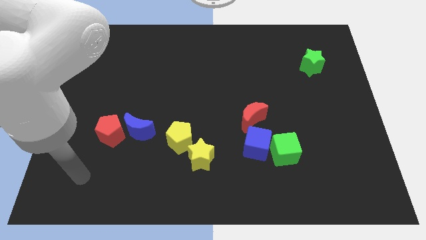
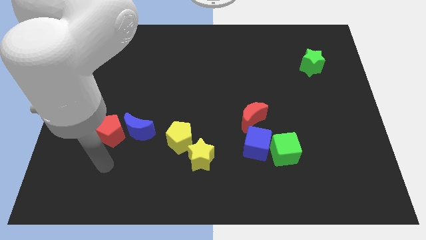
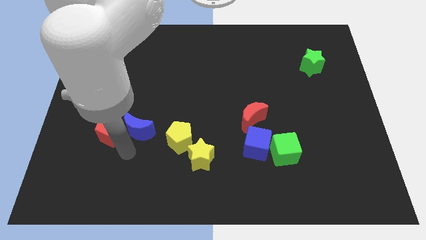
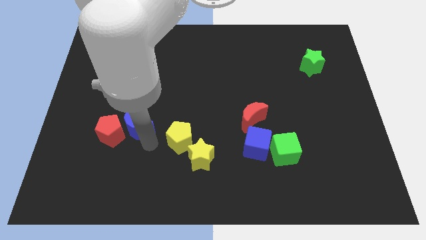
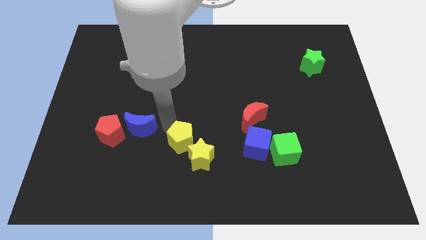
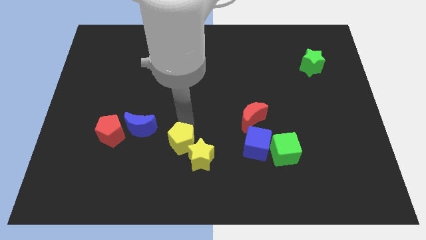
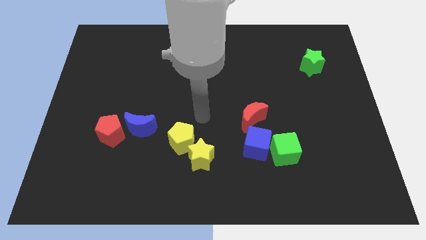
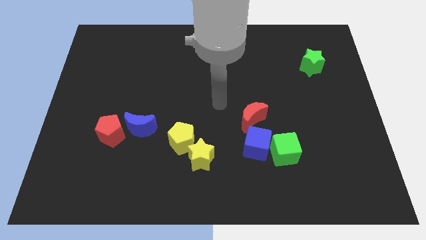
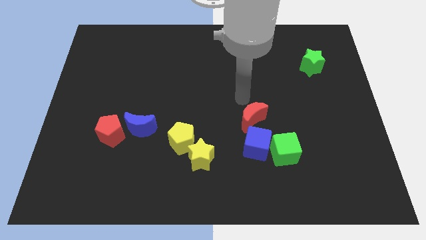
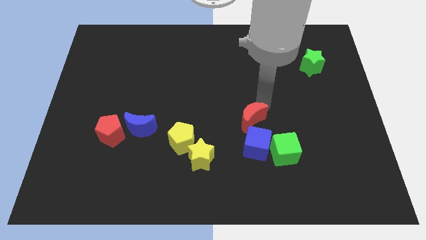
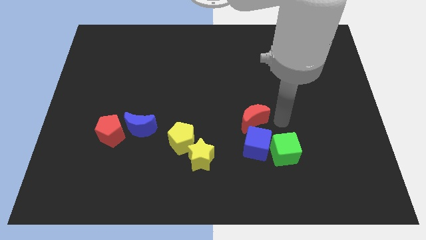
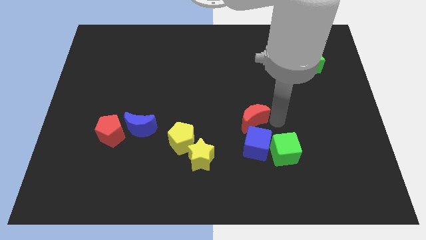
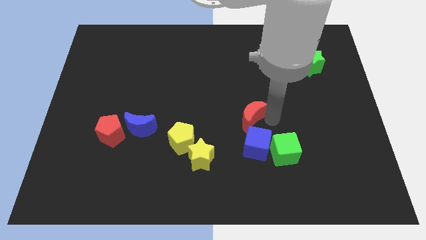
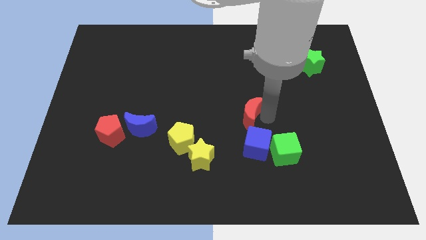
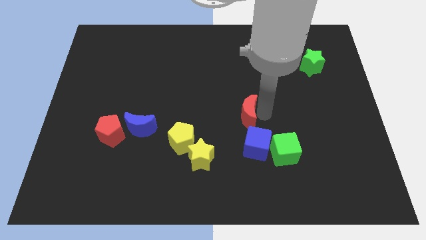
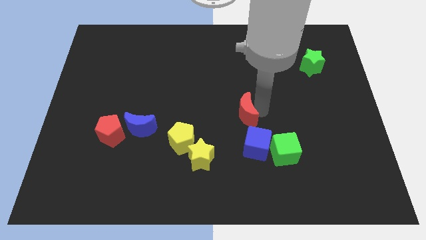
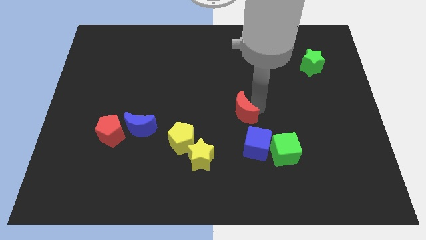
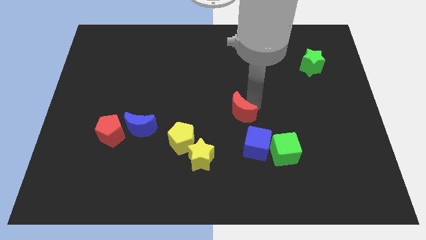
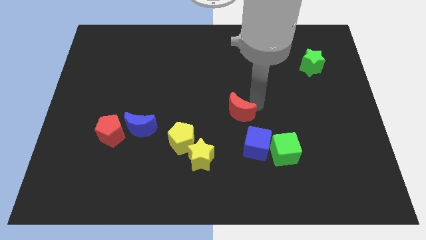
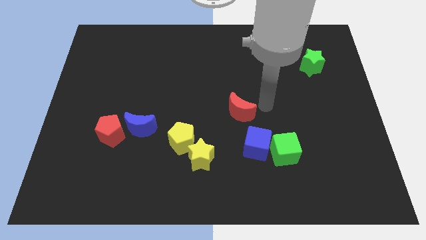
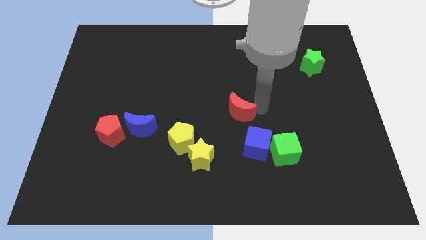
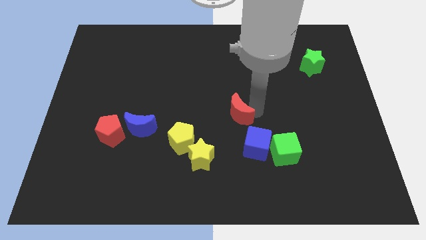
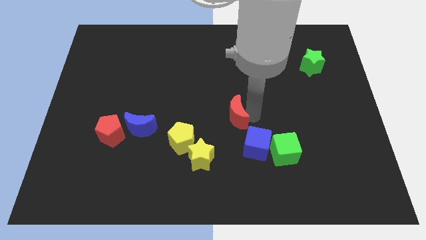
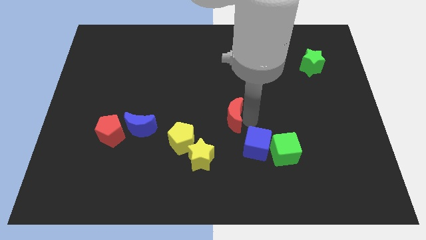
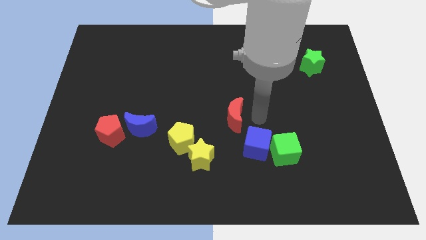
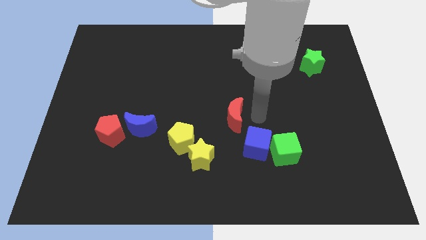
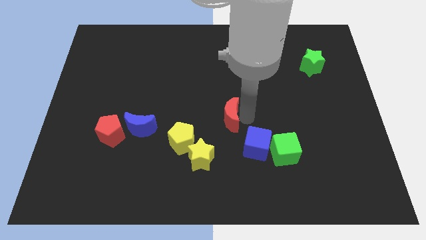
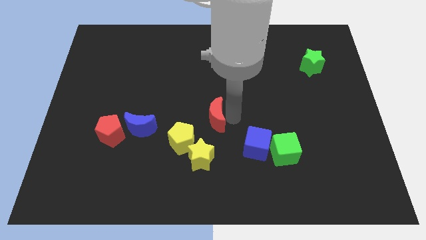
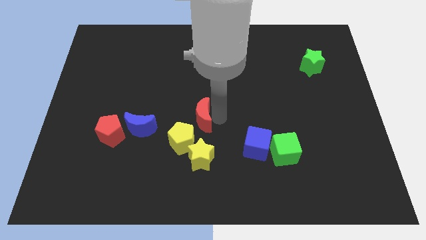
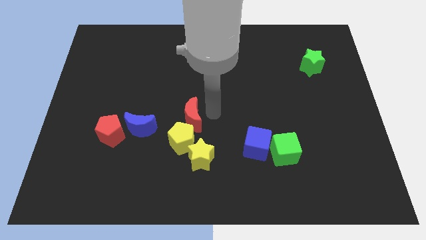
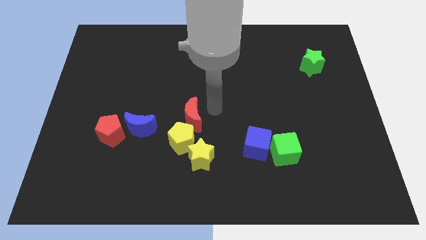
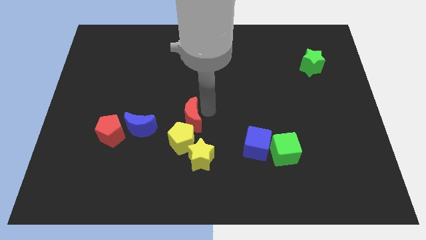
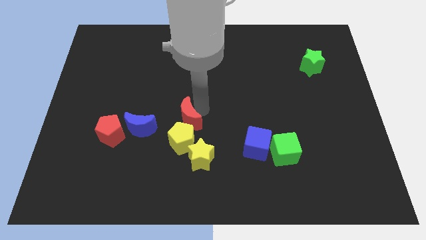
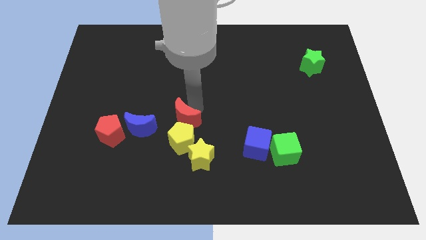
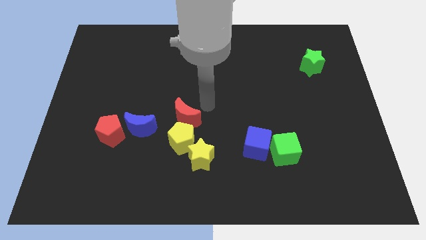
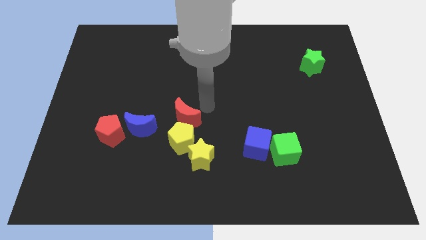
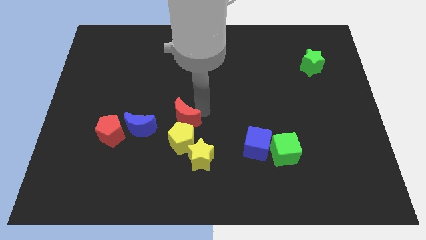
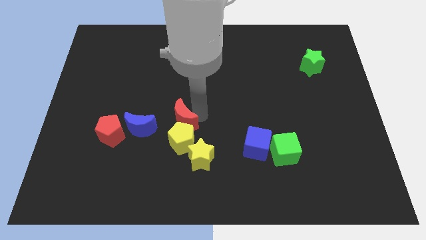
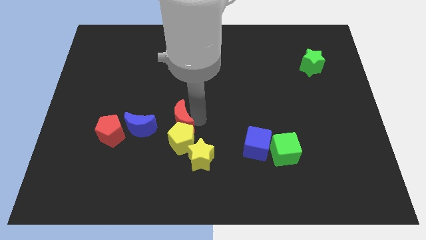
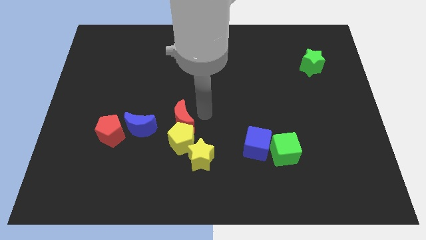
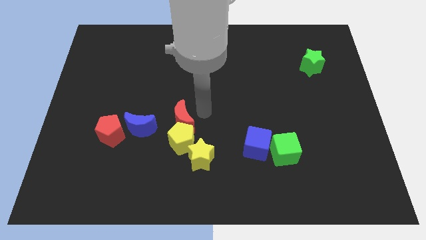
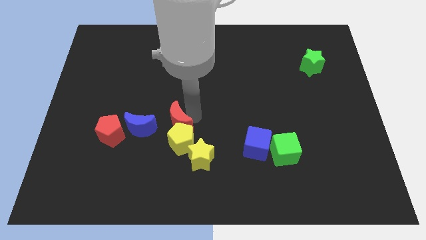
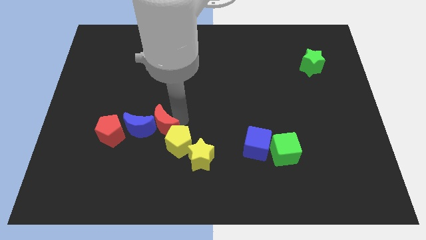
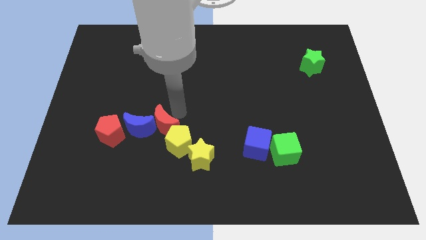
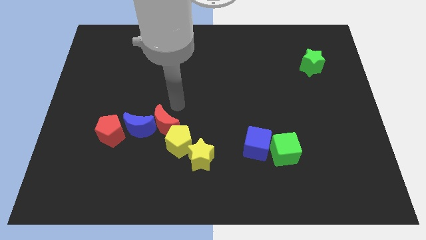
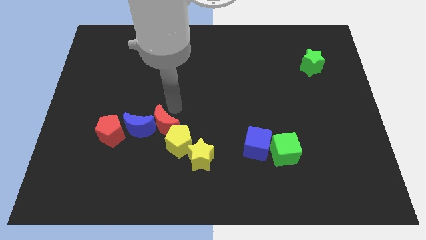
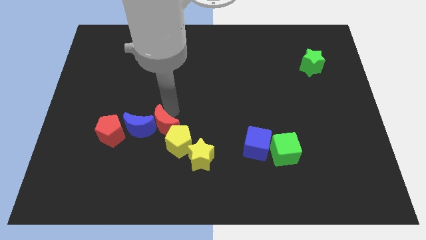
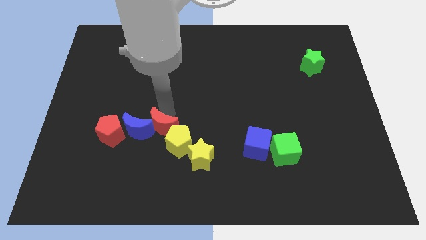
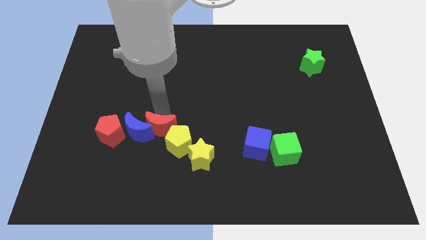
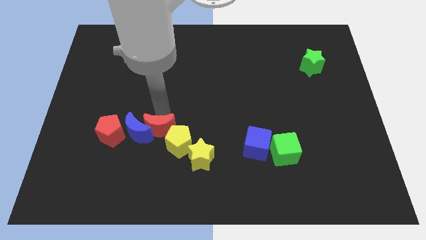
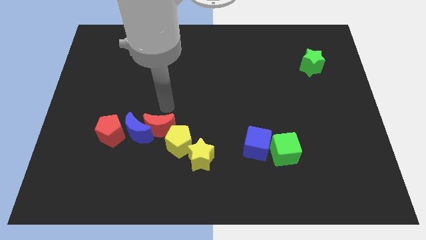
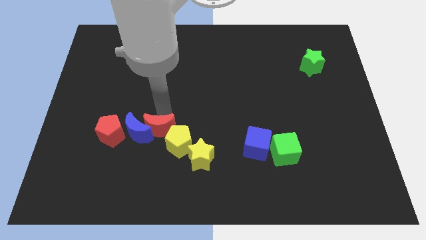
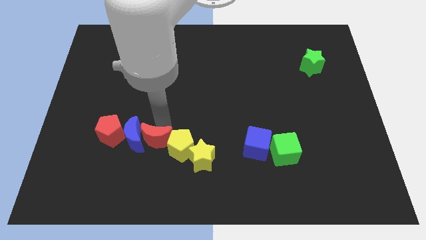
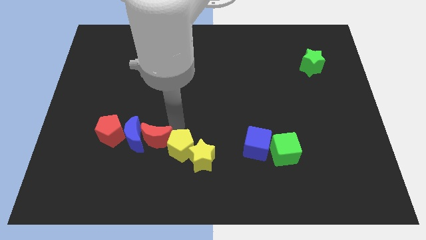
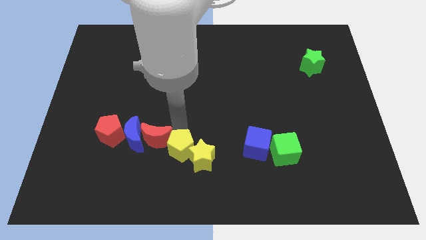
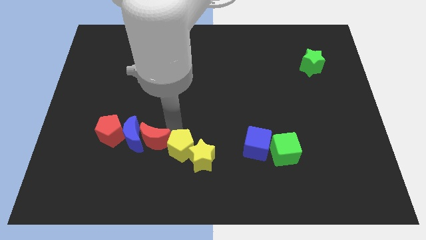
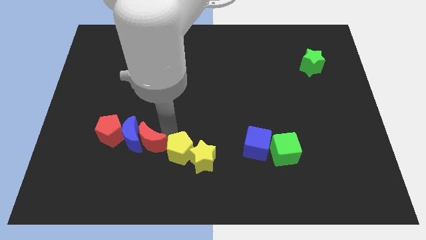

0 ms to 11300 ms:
slide the red moon to the bottom right of the red pentagon

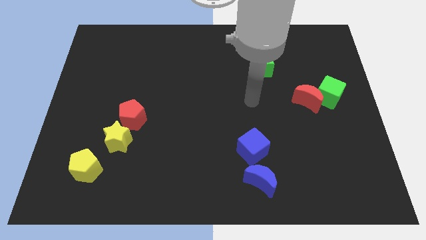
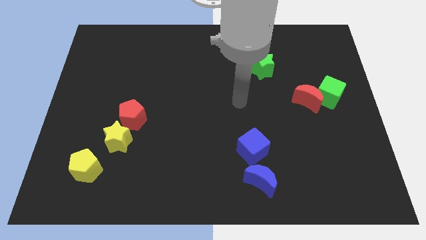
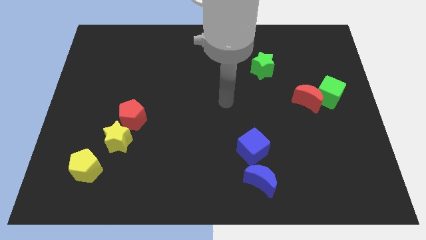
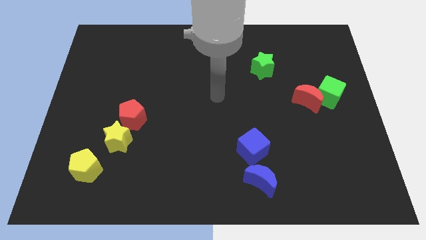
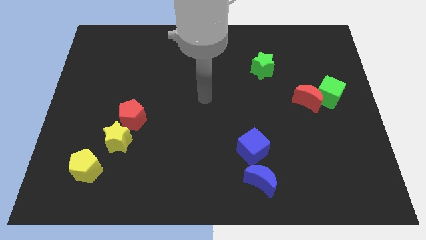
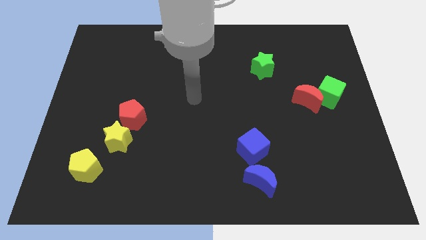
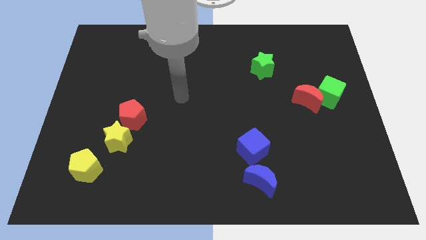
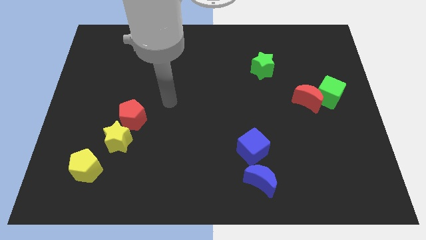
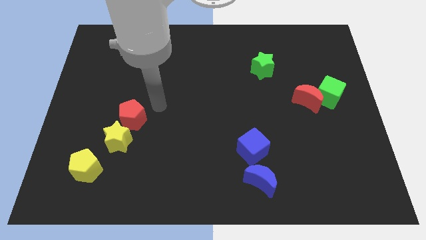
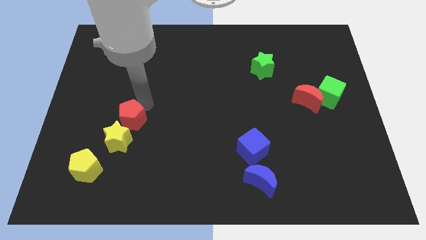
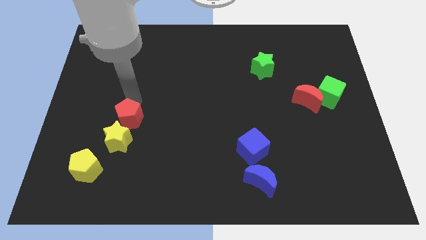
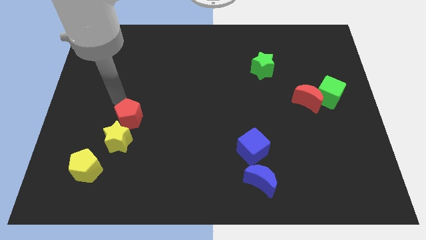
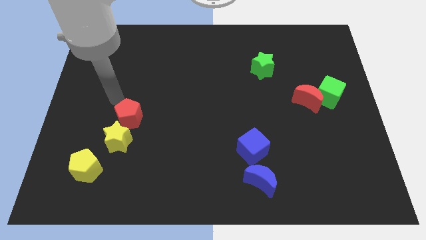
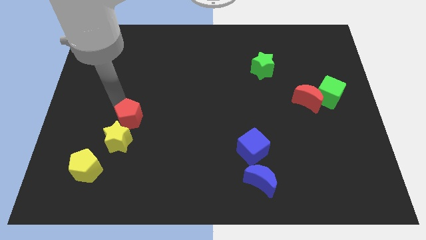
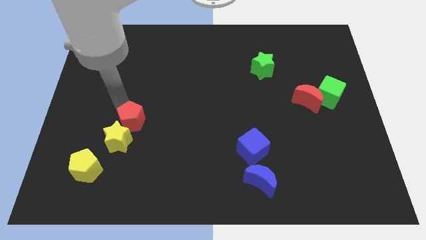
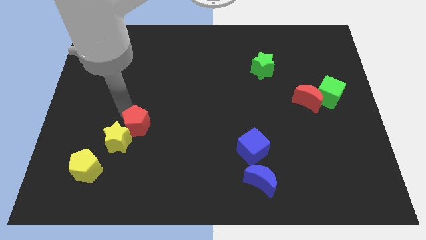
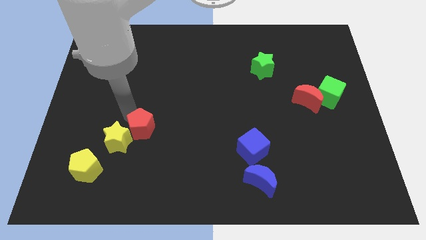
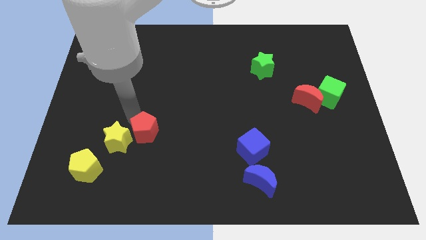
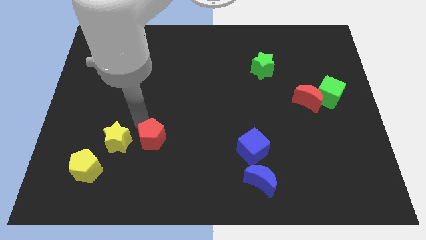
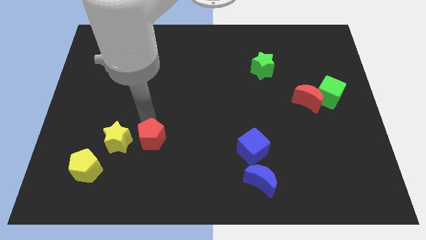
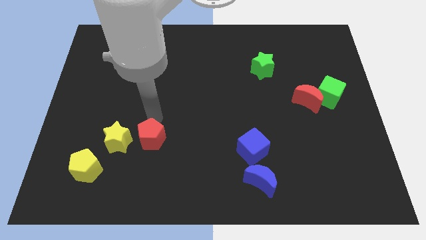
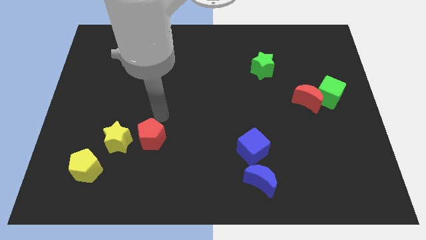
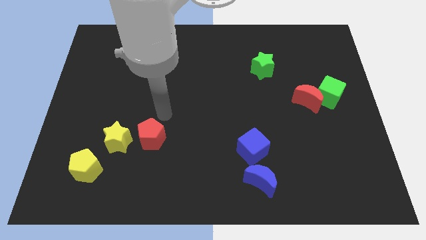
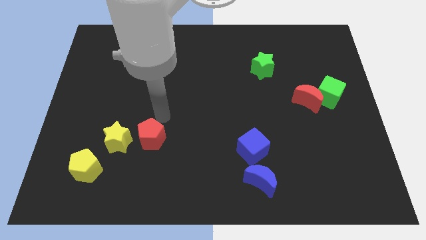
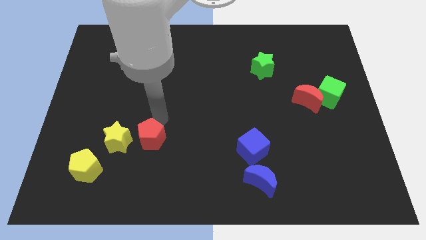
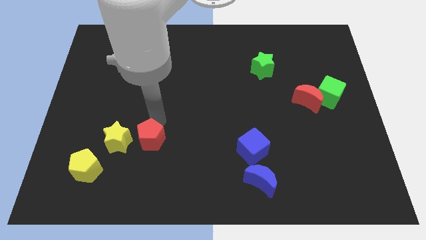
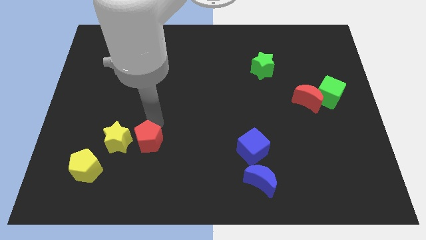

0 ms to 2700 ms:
move the red pentagon to the bottom right of the yellow star
